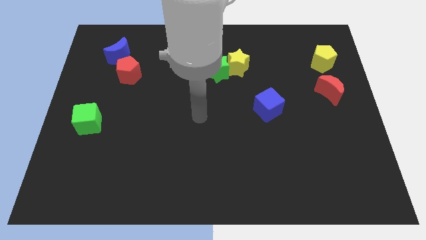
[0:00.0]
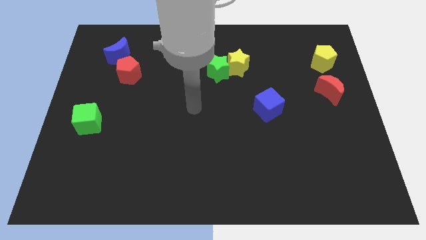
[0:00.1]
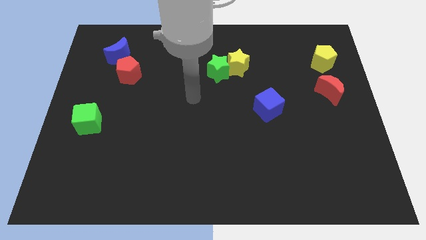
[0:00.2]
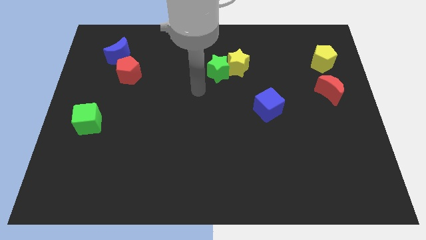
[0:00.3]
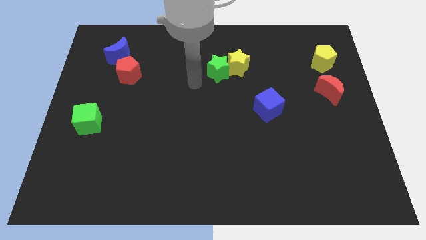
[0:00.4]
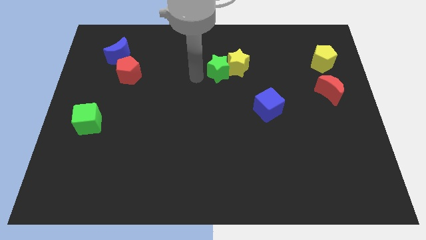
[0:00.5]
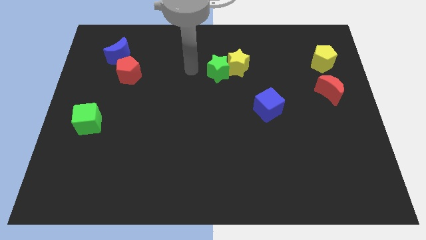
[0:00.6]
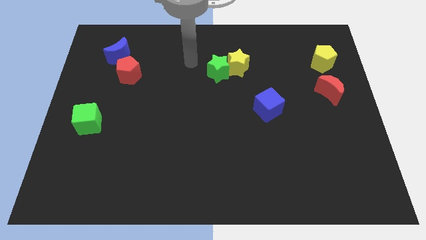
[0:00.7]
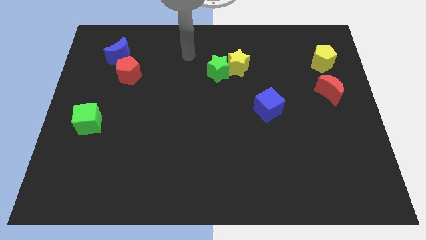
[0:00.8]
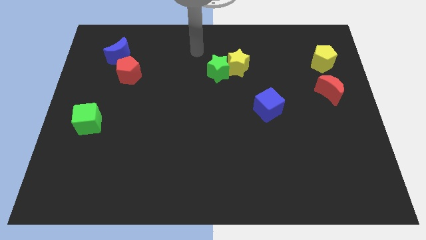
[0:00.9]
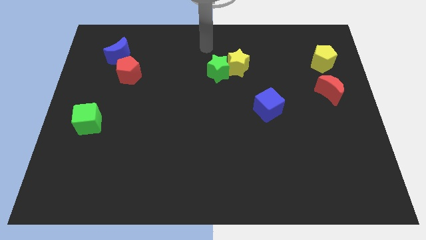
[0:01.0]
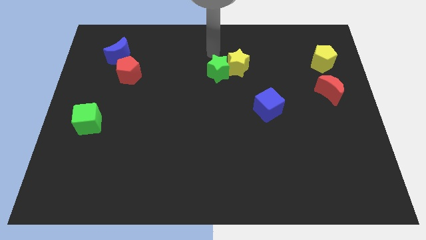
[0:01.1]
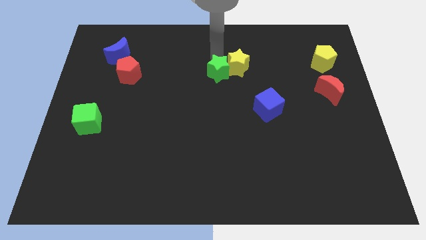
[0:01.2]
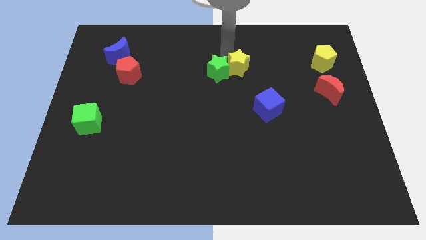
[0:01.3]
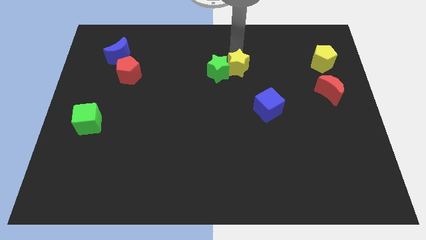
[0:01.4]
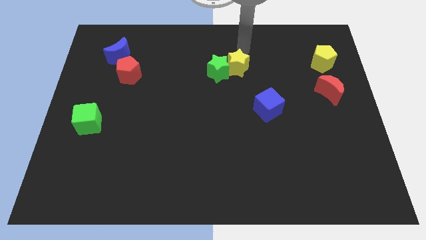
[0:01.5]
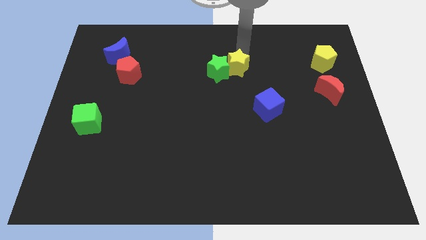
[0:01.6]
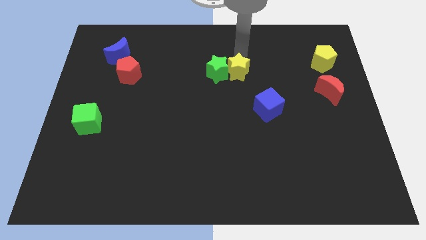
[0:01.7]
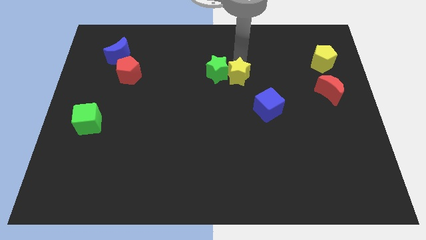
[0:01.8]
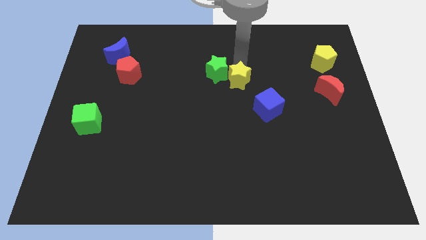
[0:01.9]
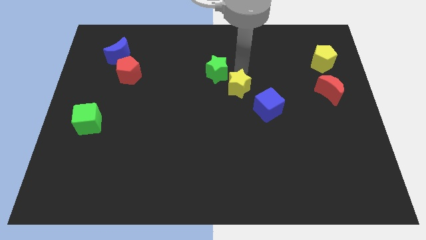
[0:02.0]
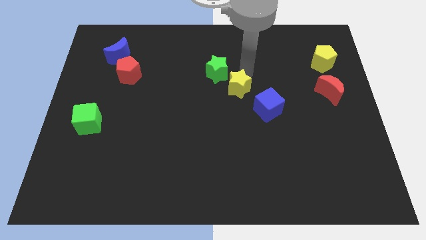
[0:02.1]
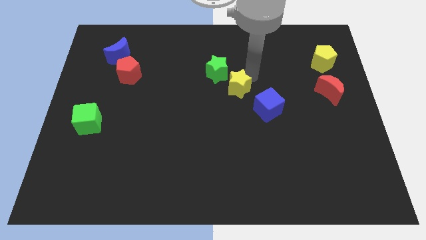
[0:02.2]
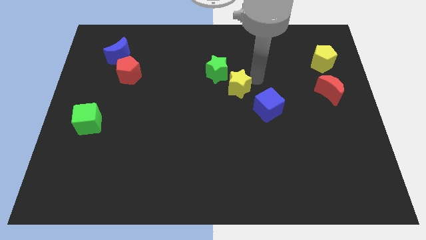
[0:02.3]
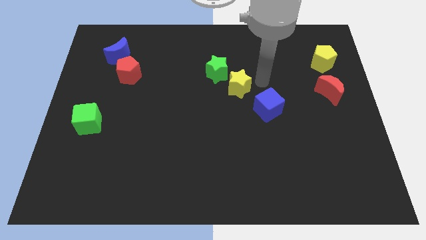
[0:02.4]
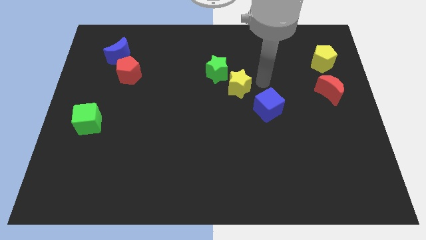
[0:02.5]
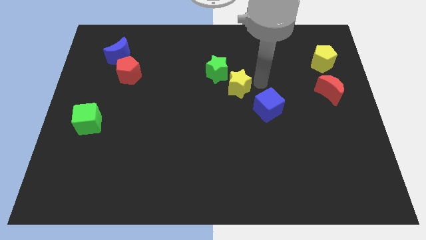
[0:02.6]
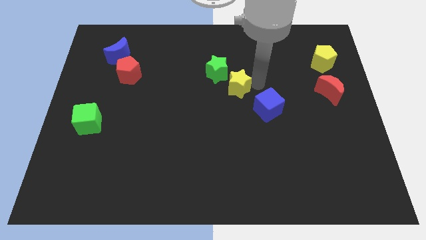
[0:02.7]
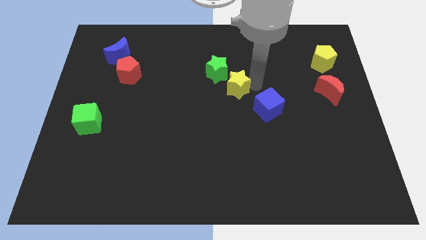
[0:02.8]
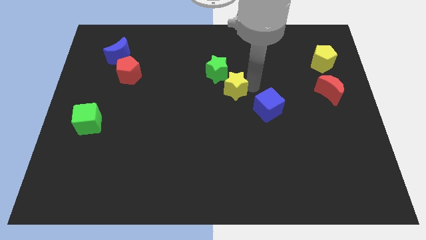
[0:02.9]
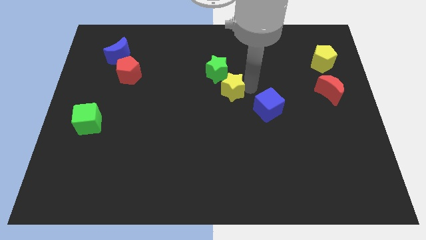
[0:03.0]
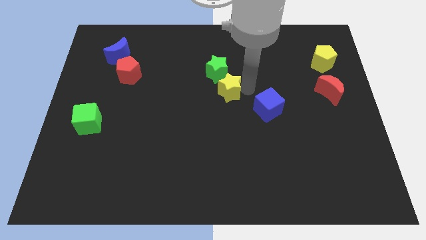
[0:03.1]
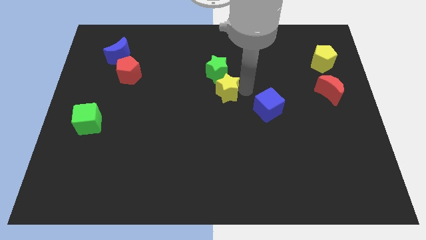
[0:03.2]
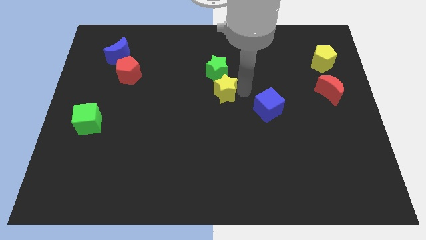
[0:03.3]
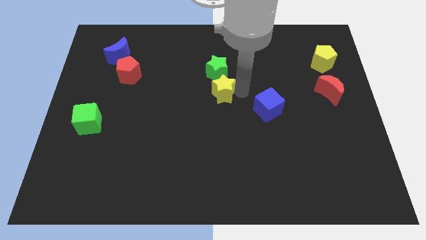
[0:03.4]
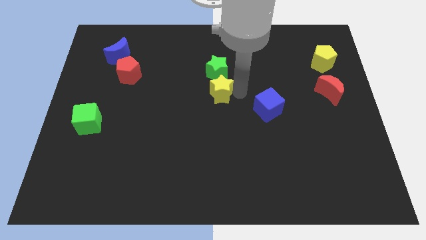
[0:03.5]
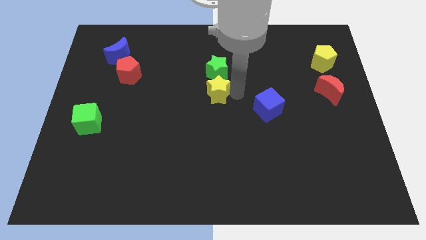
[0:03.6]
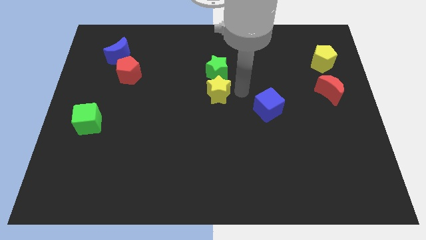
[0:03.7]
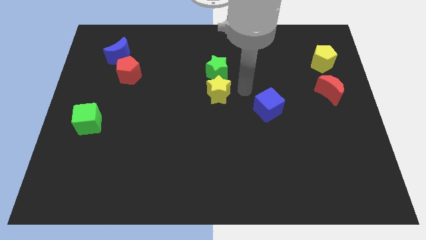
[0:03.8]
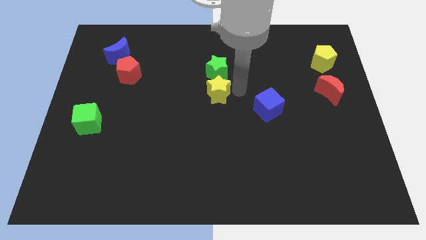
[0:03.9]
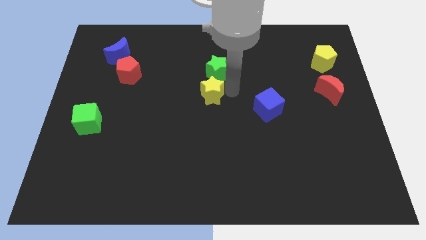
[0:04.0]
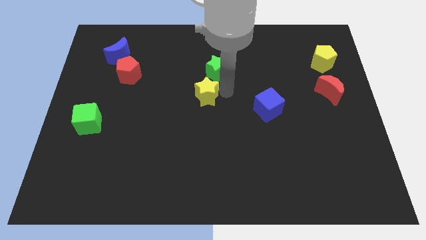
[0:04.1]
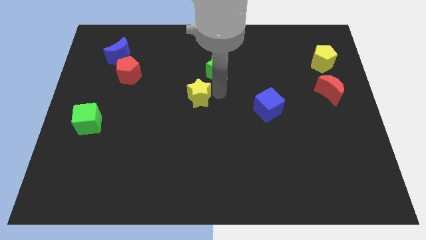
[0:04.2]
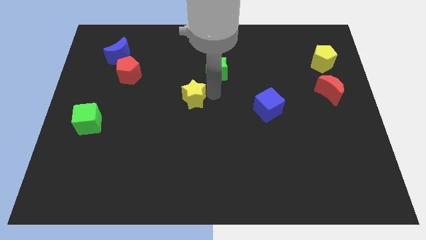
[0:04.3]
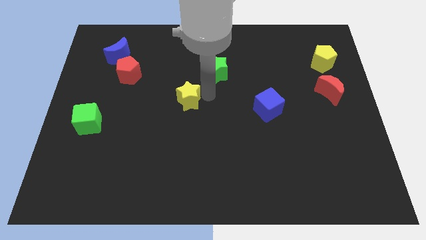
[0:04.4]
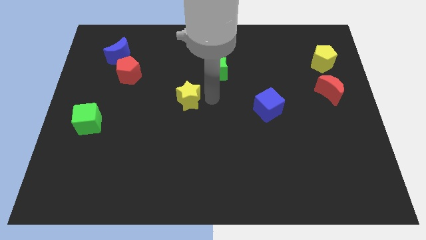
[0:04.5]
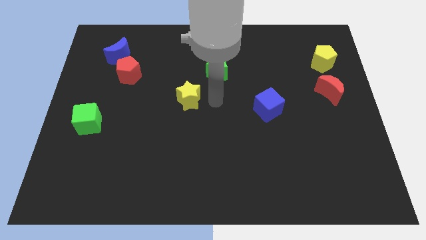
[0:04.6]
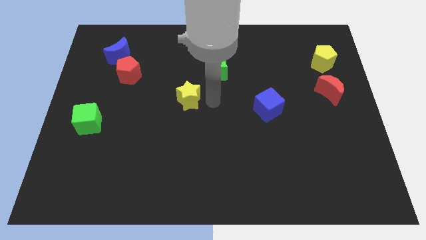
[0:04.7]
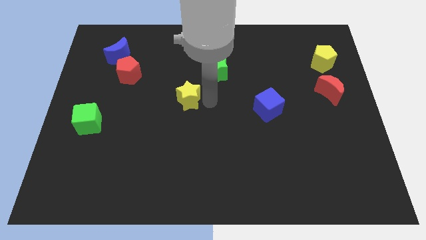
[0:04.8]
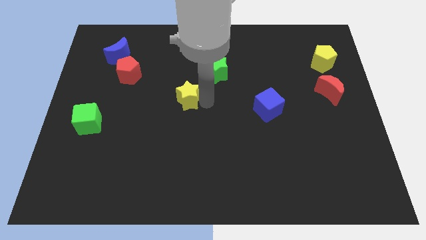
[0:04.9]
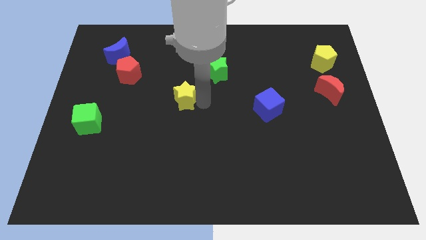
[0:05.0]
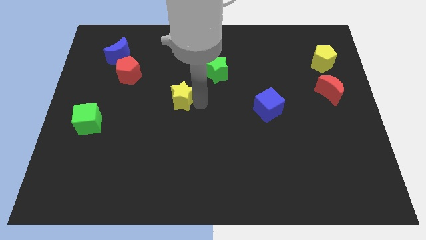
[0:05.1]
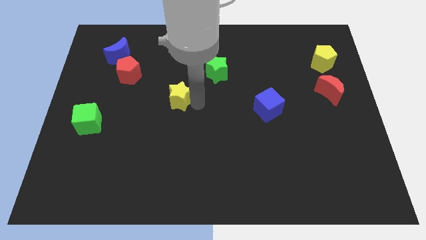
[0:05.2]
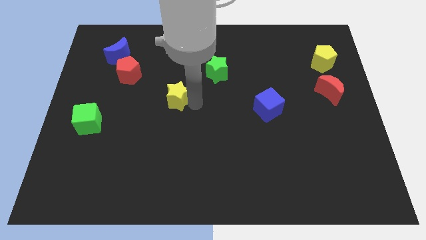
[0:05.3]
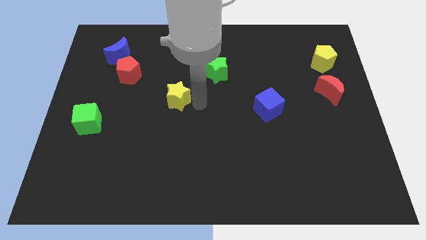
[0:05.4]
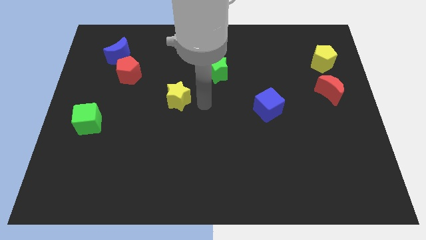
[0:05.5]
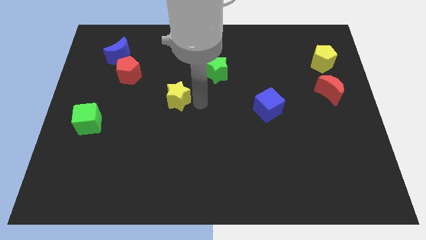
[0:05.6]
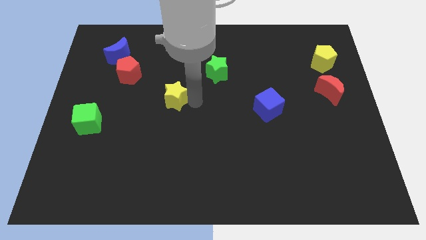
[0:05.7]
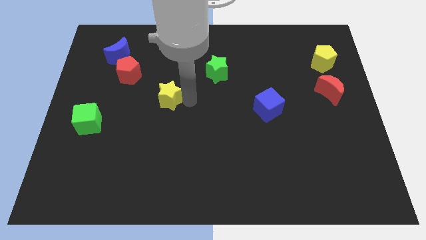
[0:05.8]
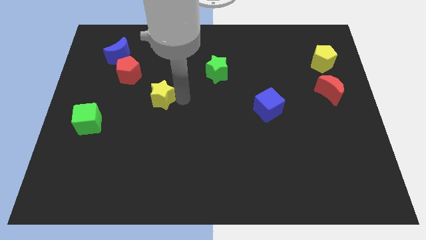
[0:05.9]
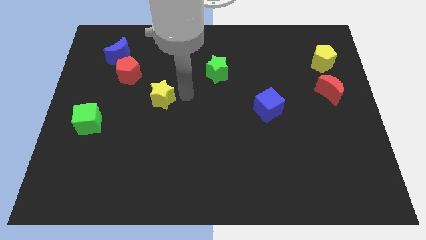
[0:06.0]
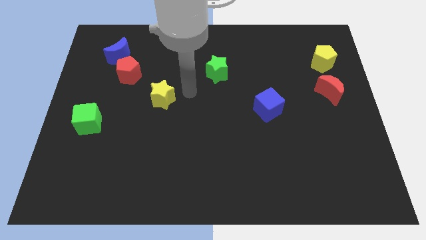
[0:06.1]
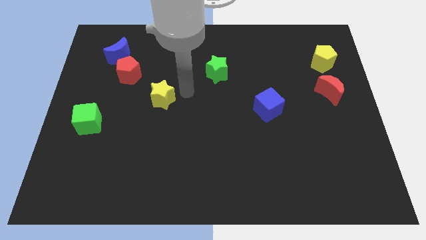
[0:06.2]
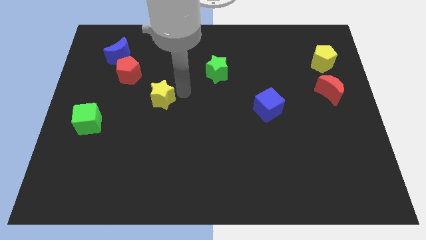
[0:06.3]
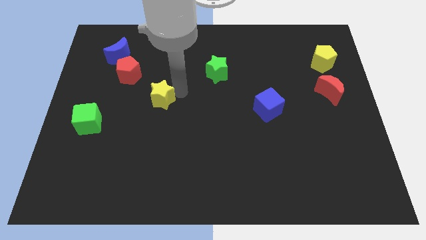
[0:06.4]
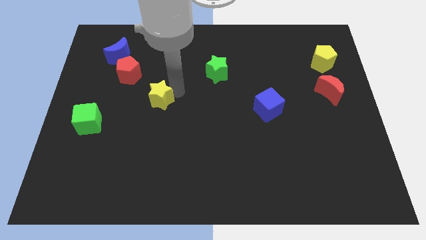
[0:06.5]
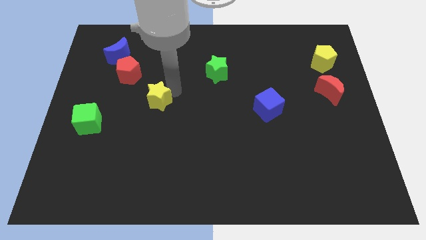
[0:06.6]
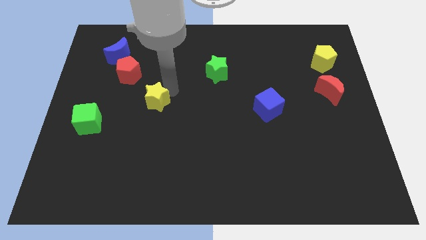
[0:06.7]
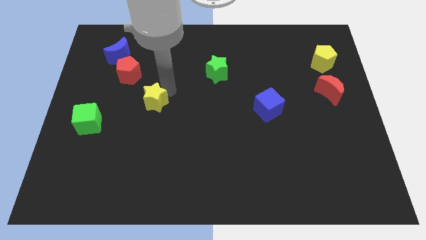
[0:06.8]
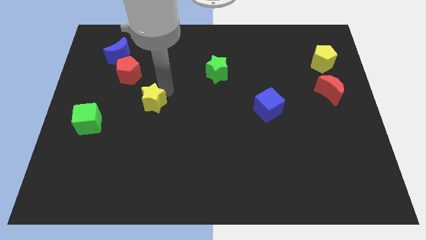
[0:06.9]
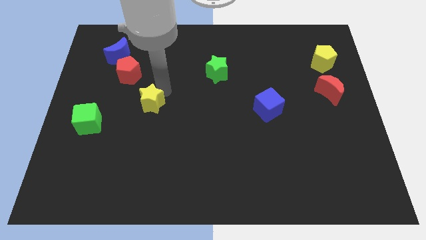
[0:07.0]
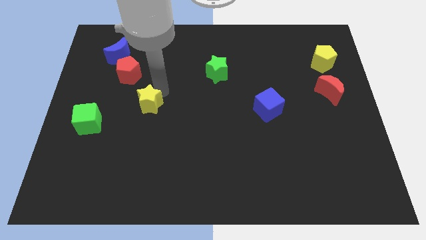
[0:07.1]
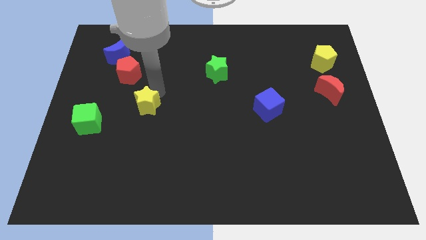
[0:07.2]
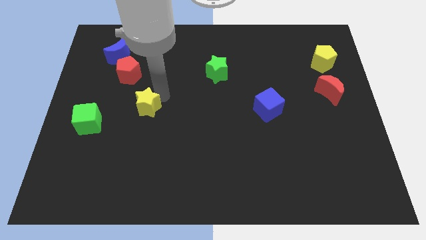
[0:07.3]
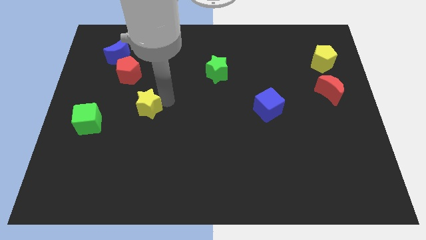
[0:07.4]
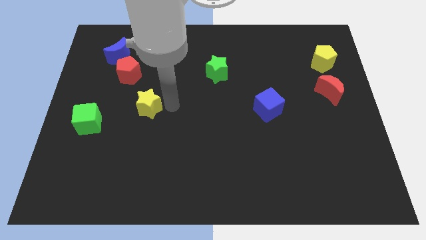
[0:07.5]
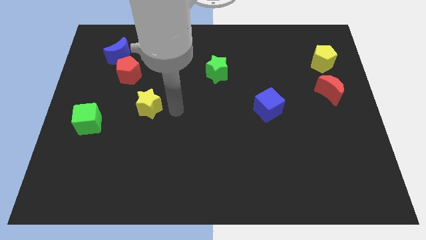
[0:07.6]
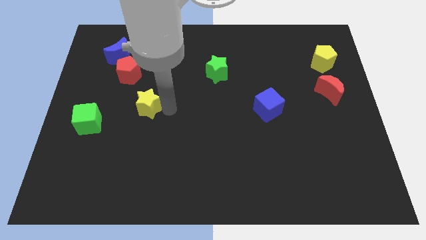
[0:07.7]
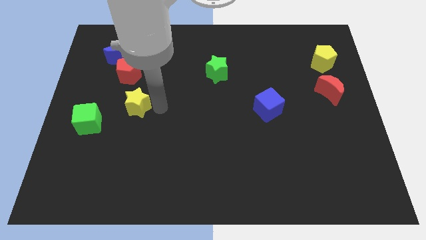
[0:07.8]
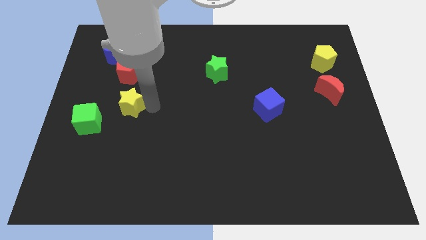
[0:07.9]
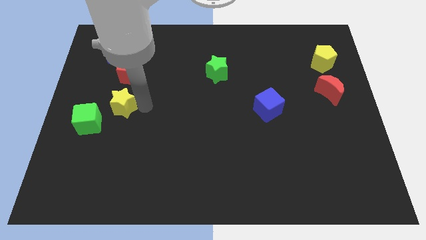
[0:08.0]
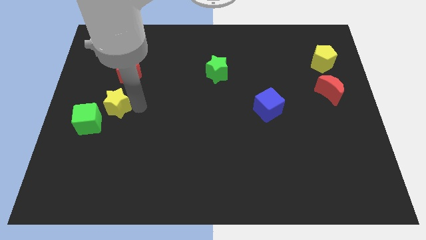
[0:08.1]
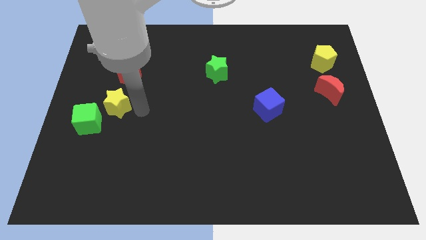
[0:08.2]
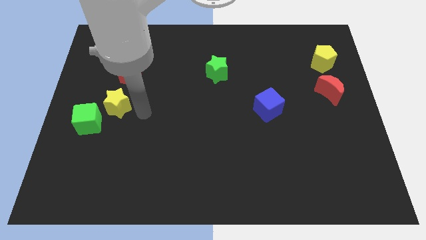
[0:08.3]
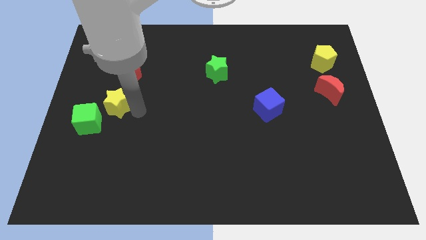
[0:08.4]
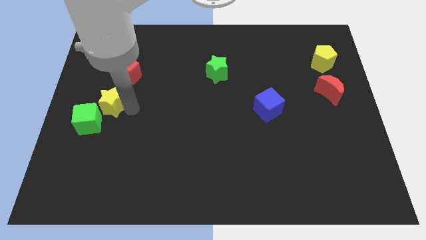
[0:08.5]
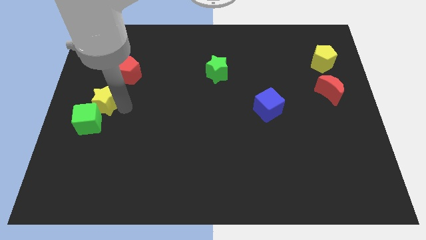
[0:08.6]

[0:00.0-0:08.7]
push the yellow star to the left side
